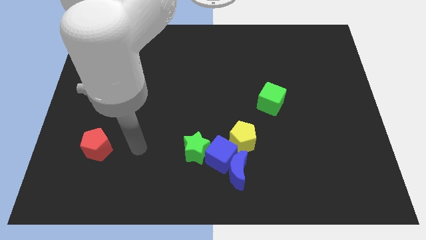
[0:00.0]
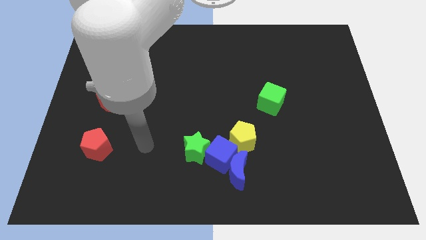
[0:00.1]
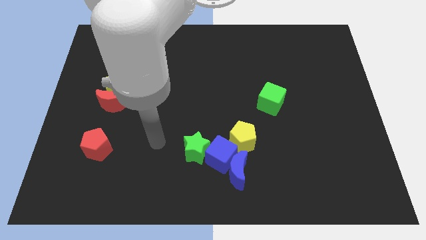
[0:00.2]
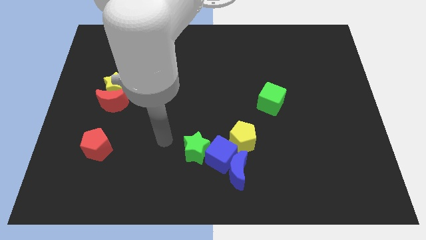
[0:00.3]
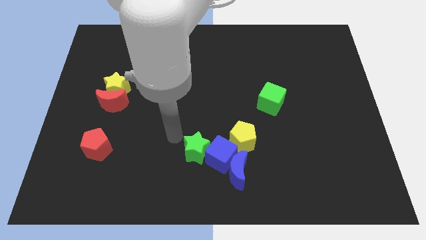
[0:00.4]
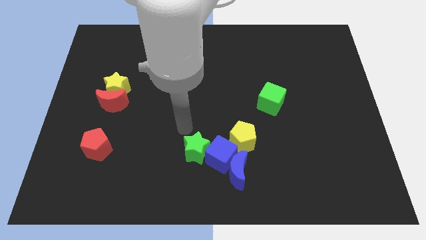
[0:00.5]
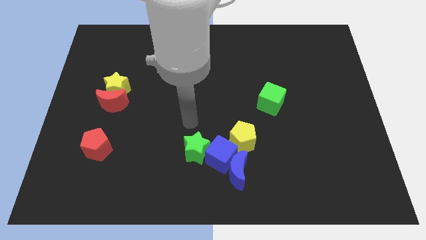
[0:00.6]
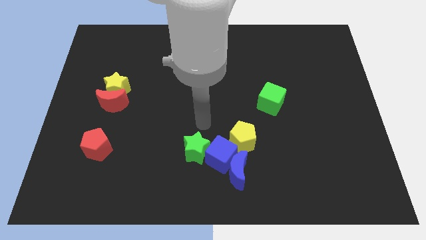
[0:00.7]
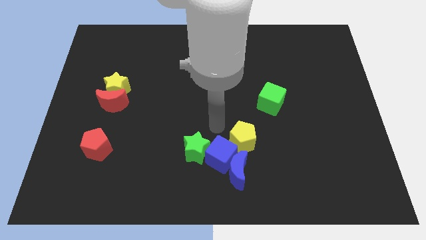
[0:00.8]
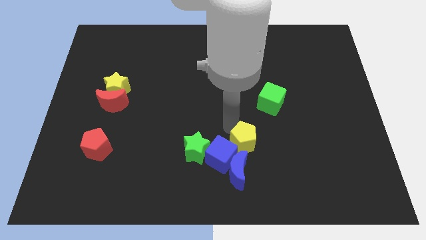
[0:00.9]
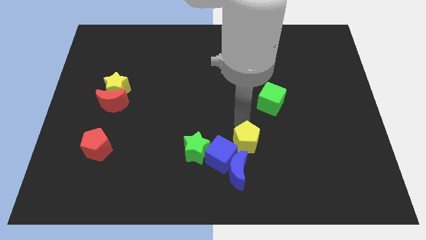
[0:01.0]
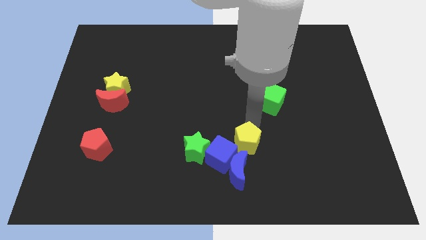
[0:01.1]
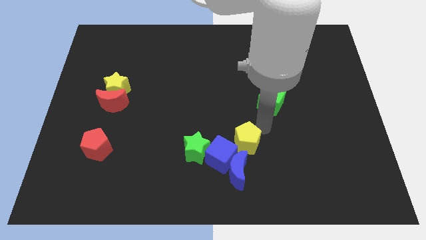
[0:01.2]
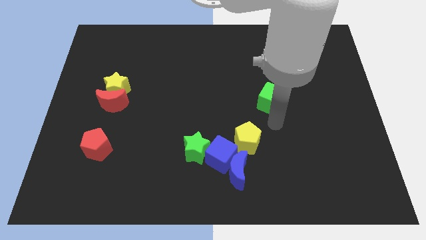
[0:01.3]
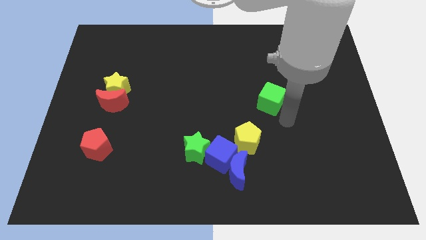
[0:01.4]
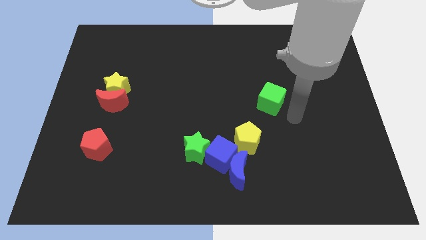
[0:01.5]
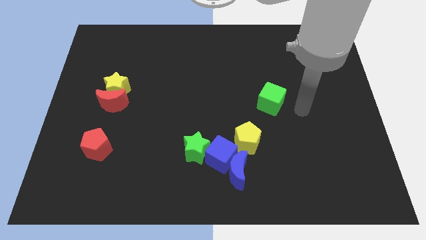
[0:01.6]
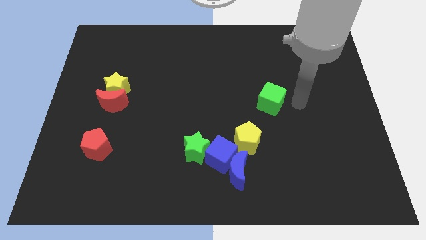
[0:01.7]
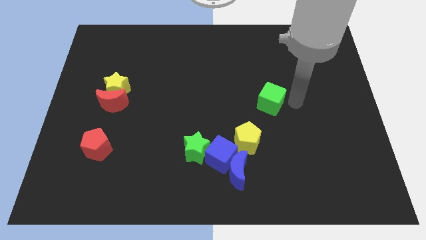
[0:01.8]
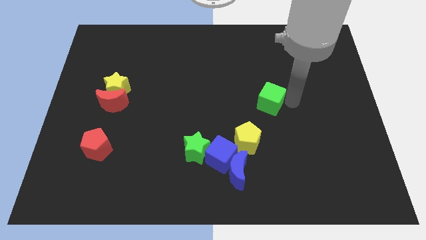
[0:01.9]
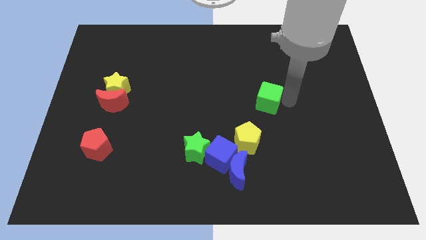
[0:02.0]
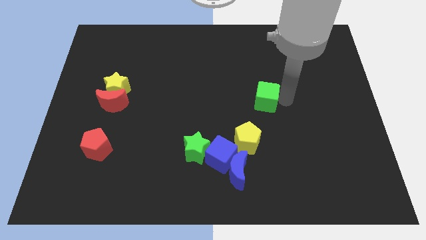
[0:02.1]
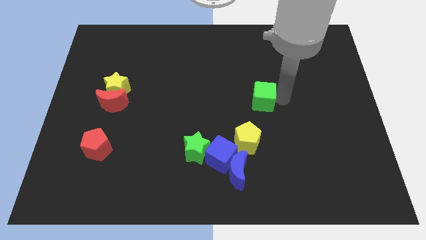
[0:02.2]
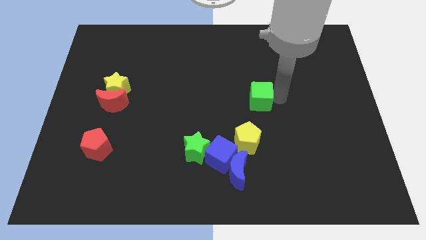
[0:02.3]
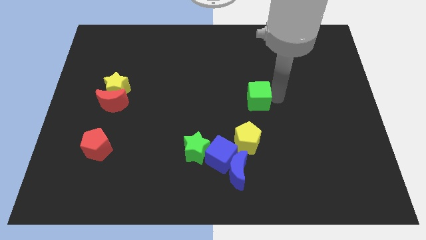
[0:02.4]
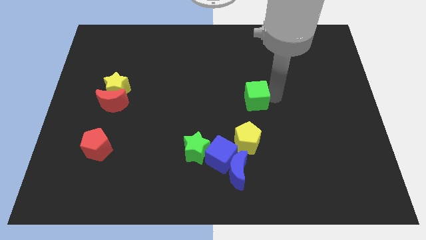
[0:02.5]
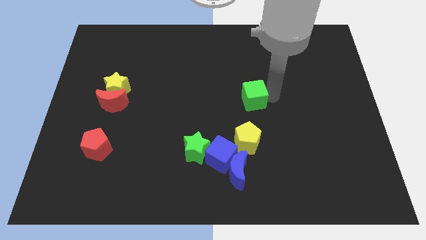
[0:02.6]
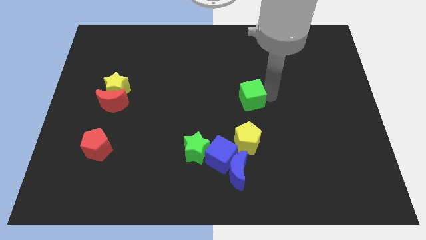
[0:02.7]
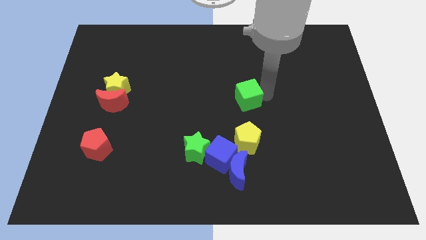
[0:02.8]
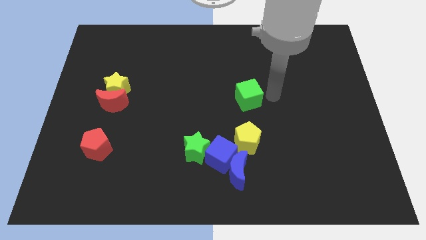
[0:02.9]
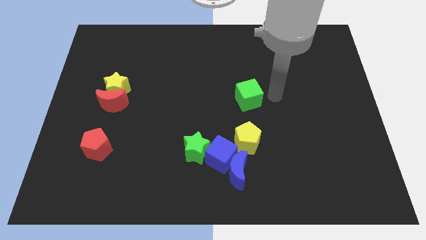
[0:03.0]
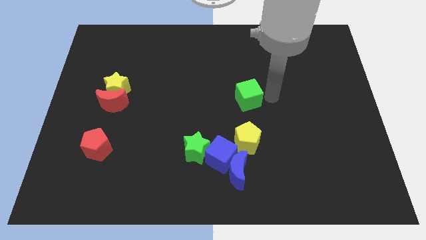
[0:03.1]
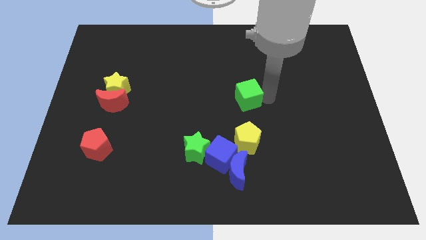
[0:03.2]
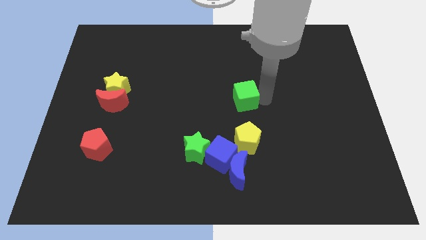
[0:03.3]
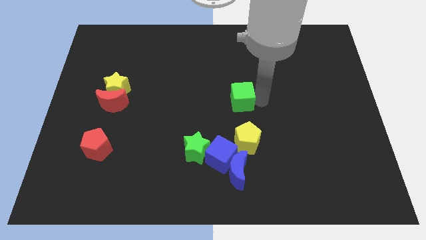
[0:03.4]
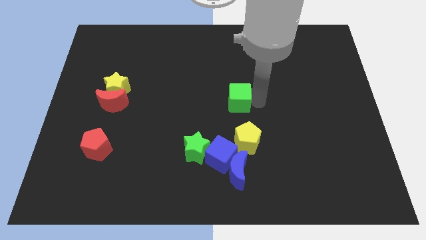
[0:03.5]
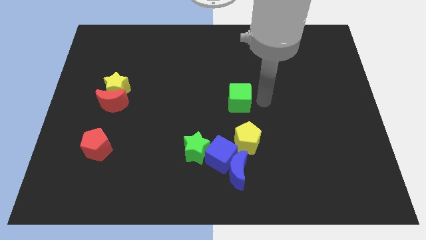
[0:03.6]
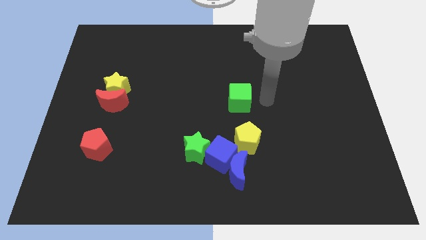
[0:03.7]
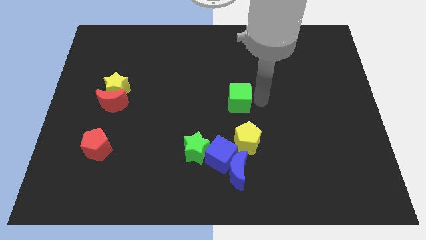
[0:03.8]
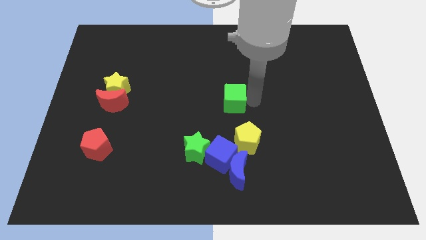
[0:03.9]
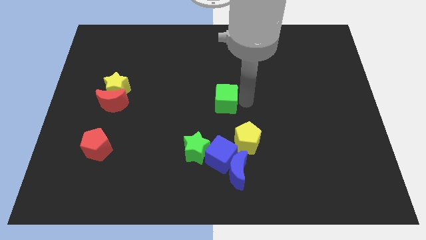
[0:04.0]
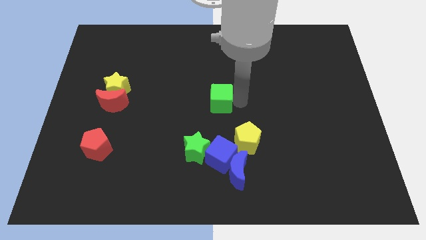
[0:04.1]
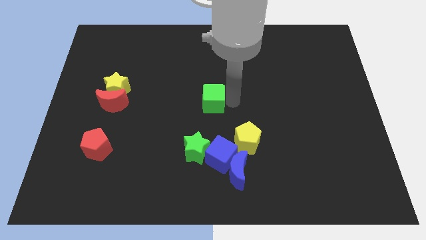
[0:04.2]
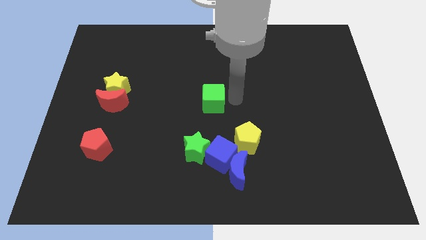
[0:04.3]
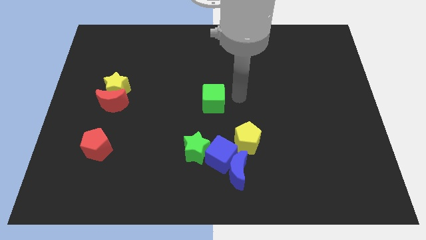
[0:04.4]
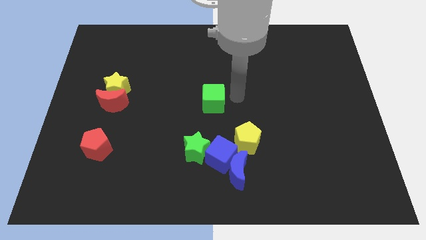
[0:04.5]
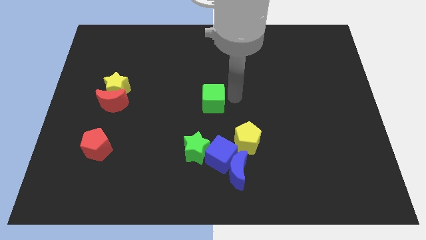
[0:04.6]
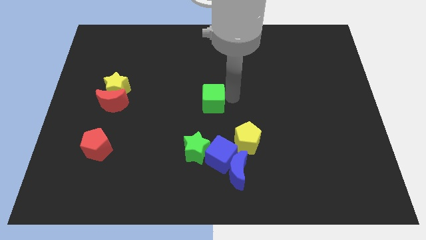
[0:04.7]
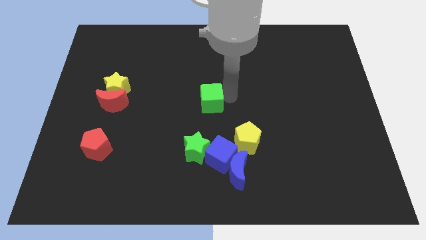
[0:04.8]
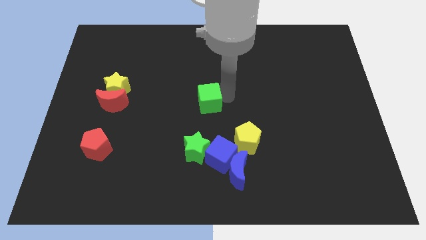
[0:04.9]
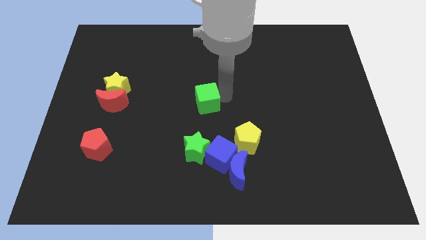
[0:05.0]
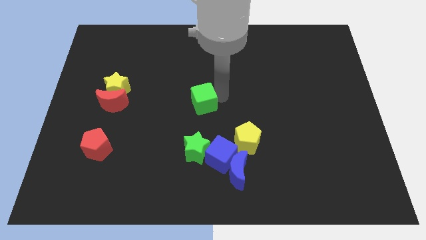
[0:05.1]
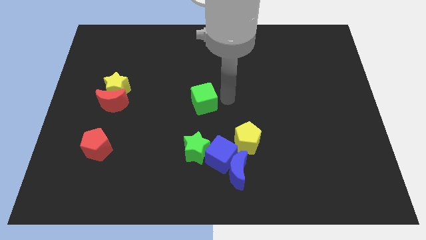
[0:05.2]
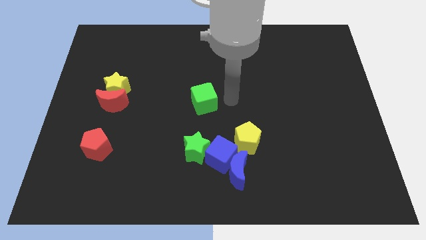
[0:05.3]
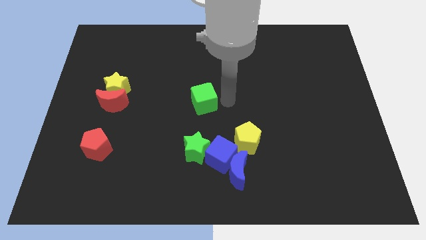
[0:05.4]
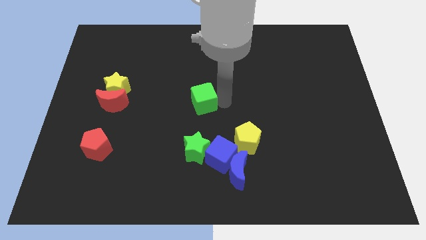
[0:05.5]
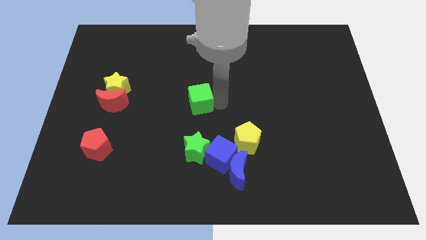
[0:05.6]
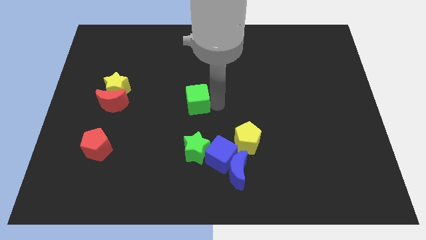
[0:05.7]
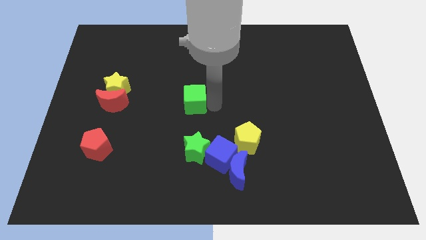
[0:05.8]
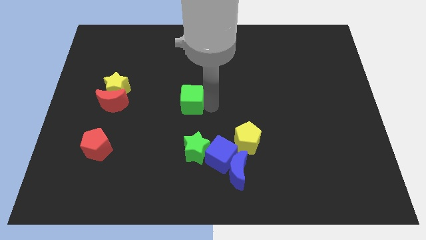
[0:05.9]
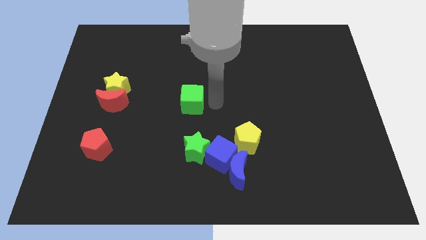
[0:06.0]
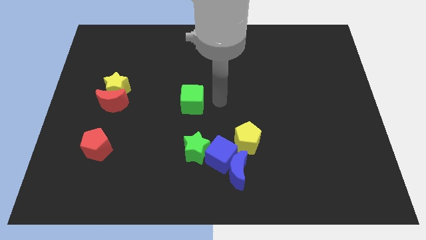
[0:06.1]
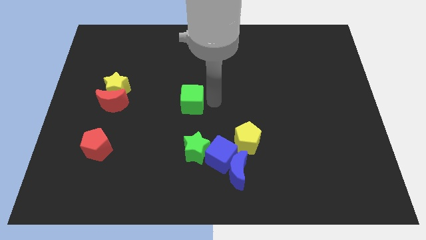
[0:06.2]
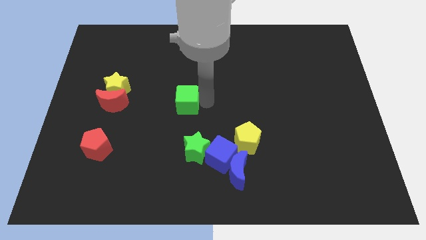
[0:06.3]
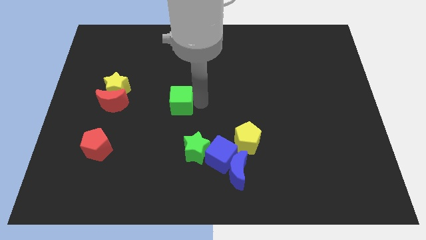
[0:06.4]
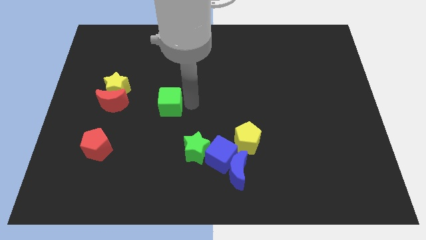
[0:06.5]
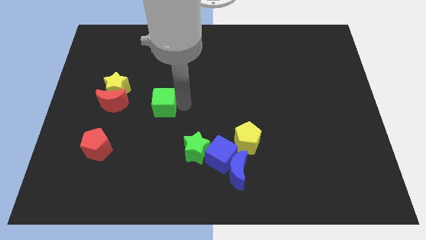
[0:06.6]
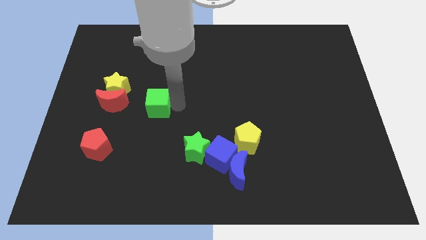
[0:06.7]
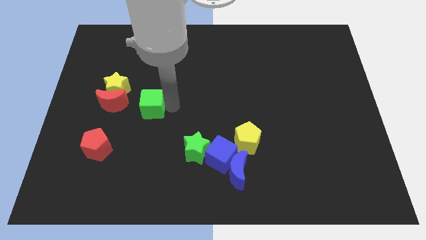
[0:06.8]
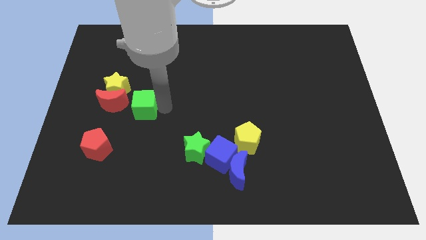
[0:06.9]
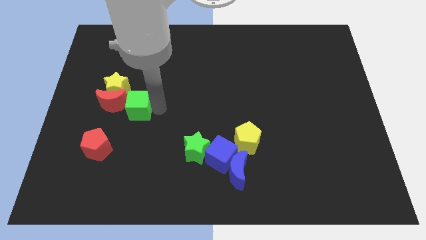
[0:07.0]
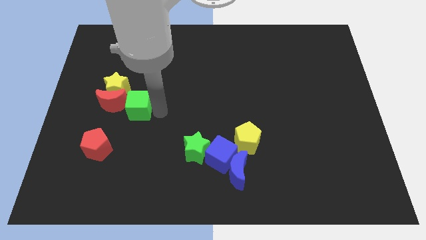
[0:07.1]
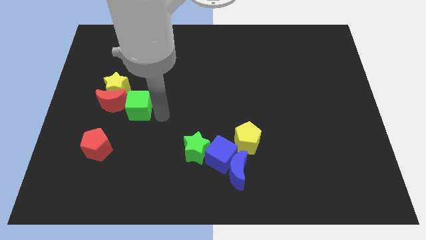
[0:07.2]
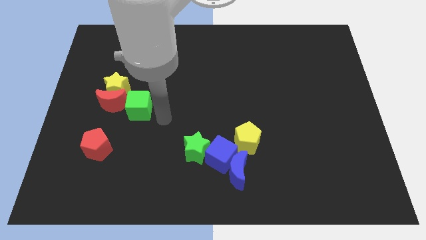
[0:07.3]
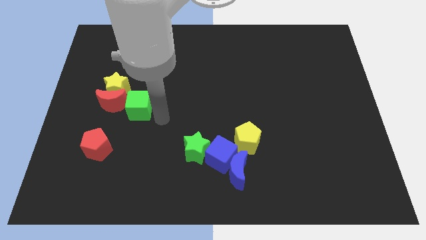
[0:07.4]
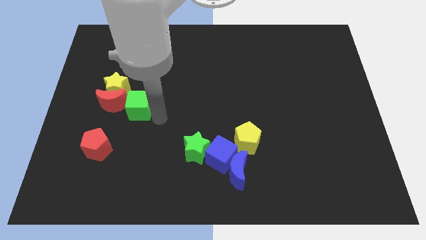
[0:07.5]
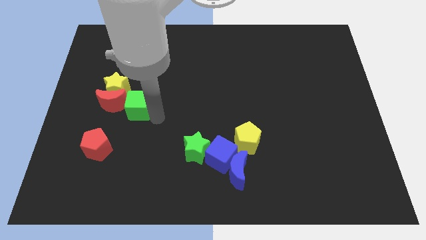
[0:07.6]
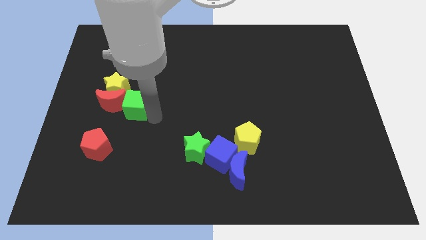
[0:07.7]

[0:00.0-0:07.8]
put the green cube close to the red moon
